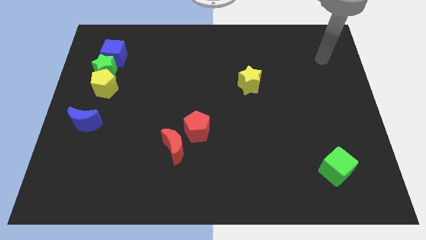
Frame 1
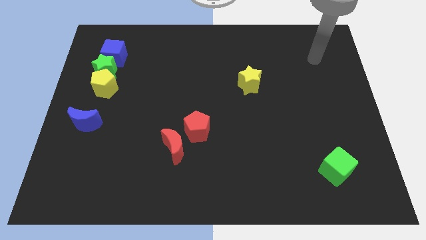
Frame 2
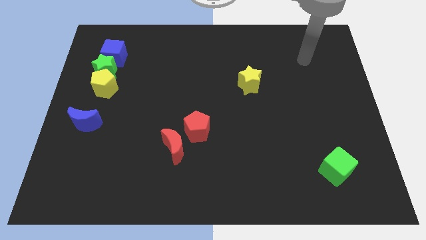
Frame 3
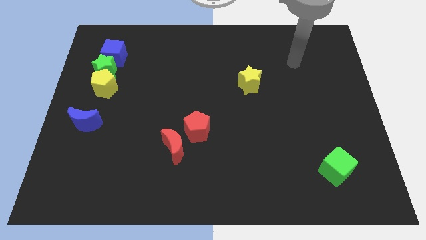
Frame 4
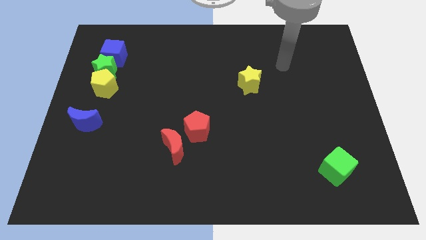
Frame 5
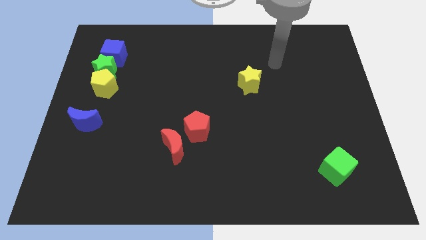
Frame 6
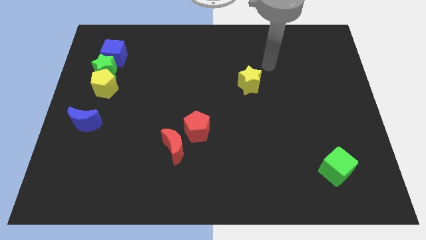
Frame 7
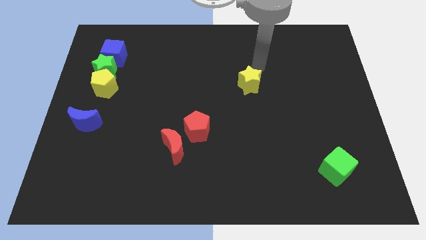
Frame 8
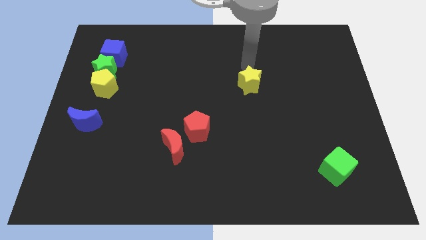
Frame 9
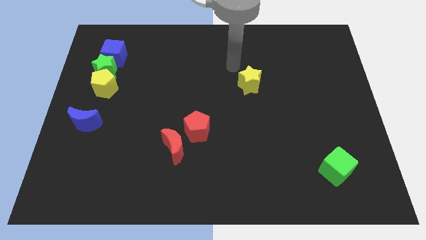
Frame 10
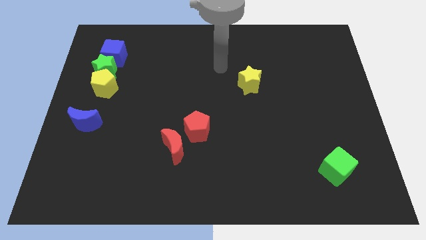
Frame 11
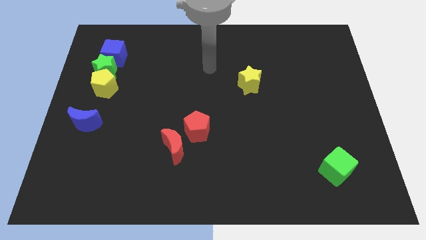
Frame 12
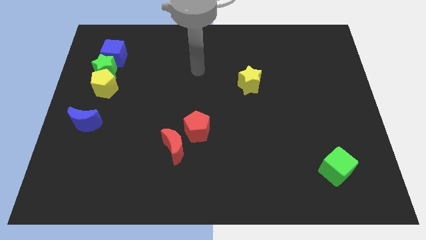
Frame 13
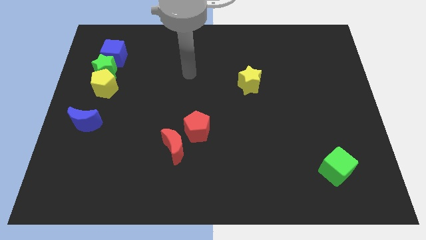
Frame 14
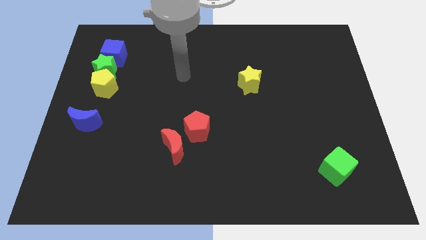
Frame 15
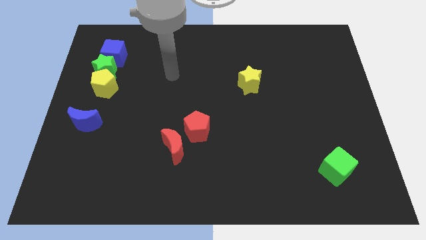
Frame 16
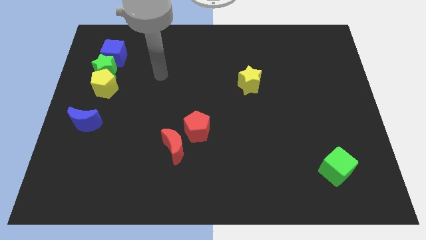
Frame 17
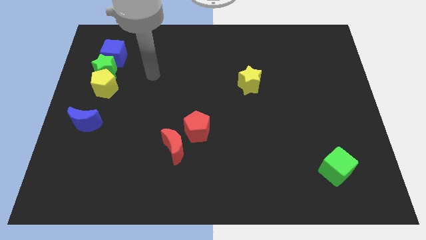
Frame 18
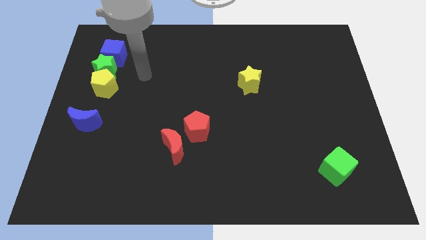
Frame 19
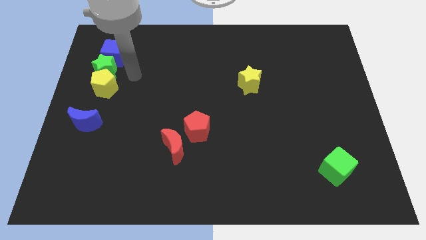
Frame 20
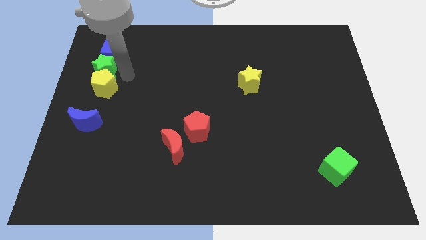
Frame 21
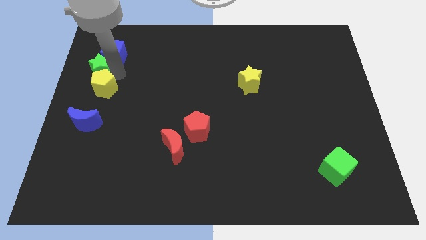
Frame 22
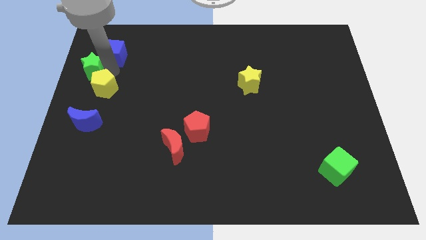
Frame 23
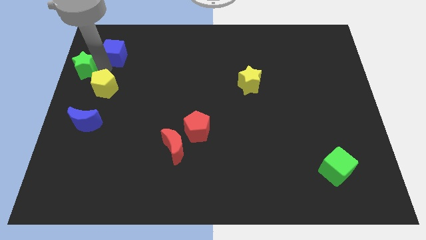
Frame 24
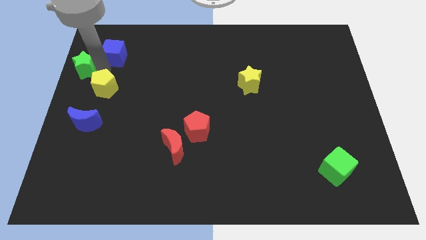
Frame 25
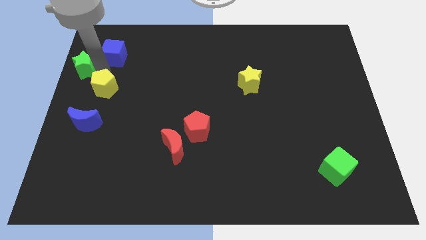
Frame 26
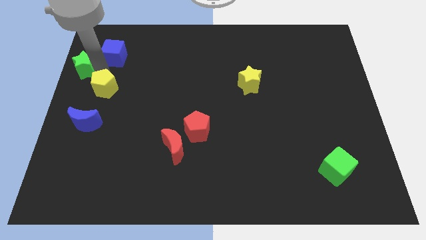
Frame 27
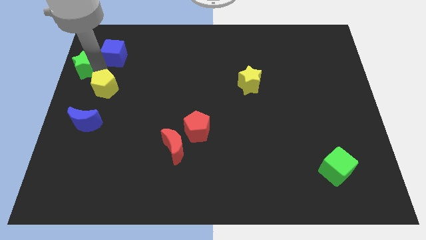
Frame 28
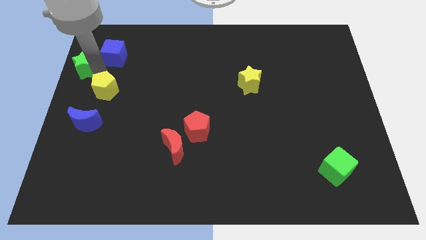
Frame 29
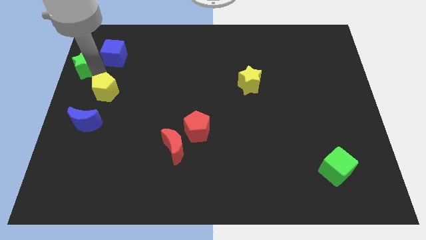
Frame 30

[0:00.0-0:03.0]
move the yellow pentagon away from the green star

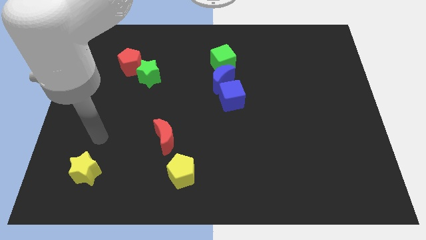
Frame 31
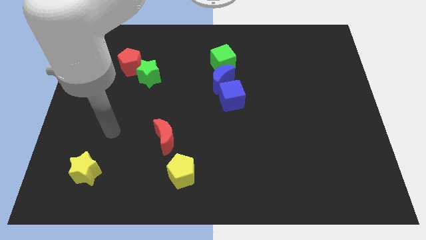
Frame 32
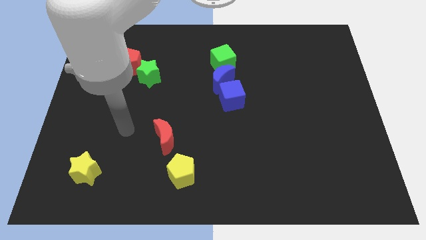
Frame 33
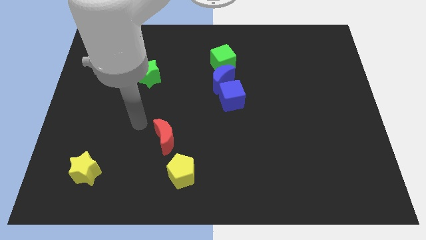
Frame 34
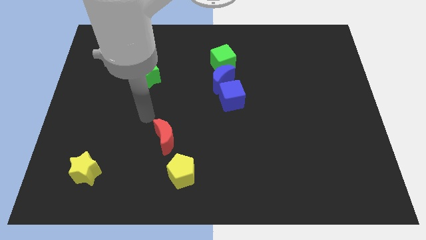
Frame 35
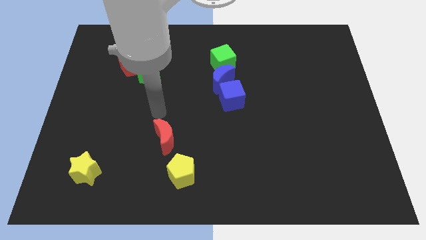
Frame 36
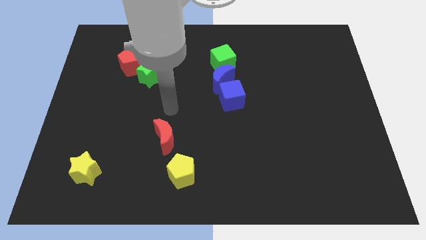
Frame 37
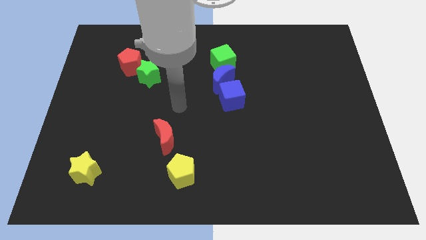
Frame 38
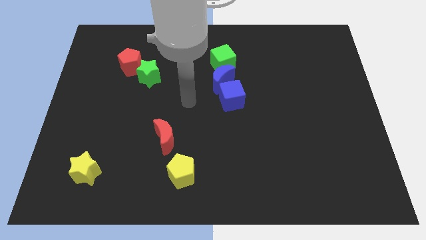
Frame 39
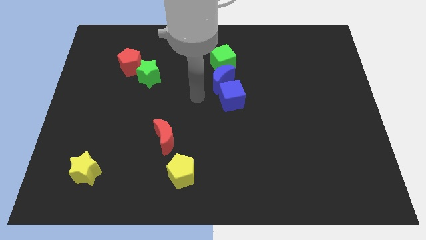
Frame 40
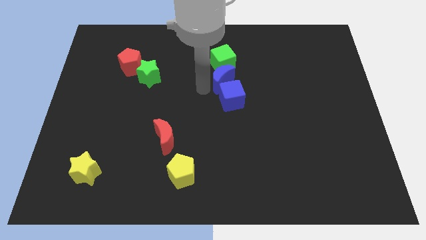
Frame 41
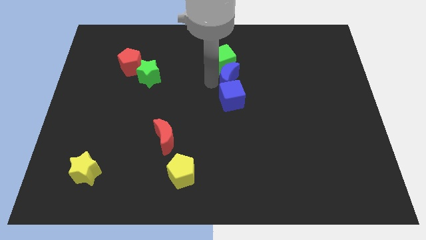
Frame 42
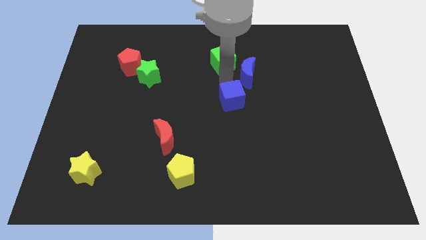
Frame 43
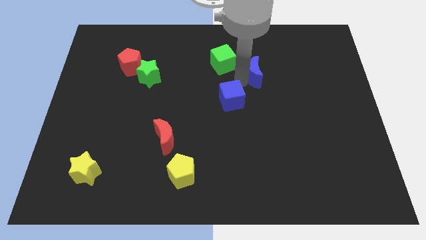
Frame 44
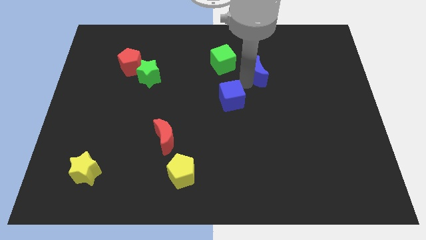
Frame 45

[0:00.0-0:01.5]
pull the blue cube apart from the blue moon

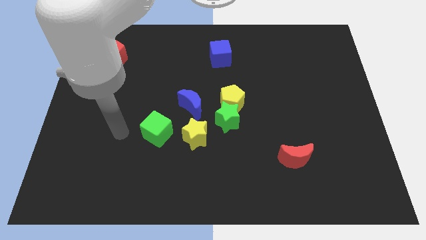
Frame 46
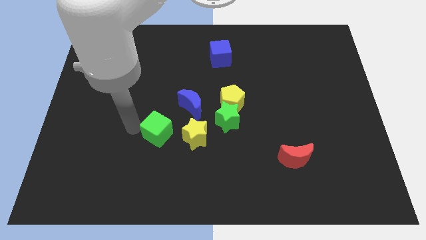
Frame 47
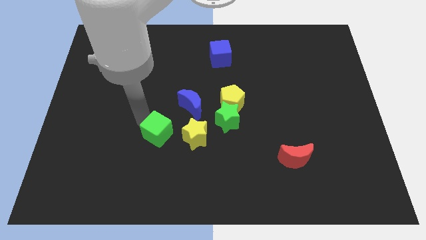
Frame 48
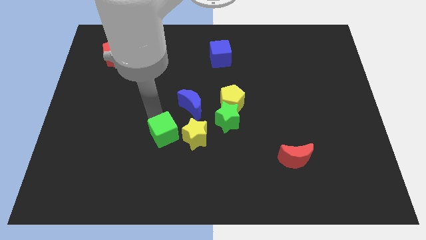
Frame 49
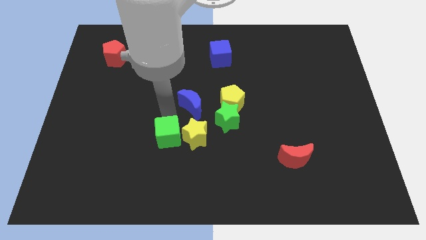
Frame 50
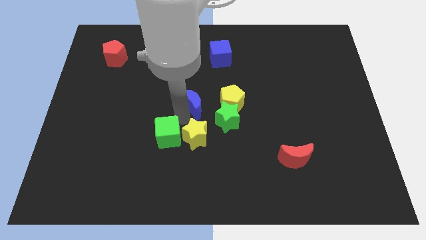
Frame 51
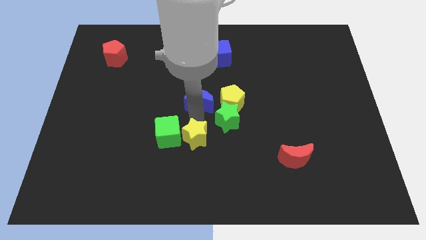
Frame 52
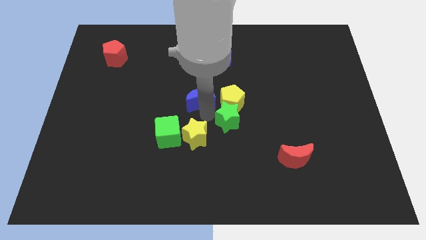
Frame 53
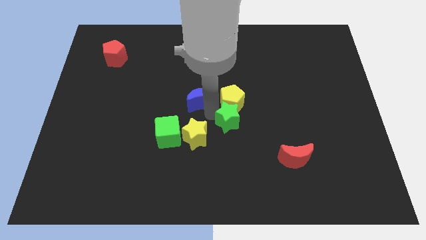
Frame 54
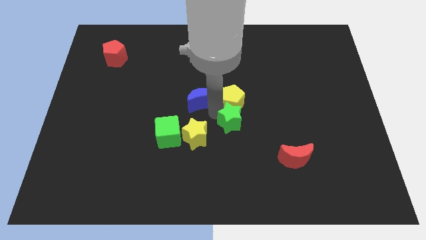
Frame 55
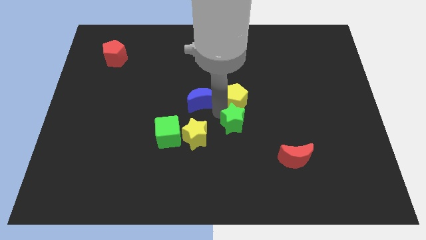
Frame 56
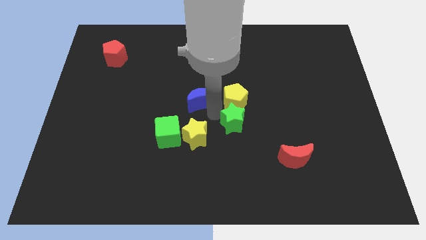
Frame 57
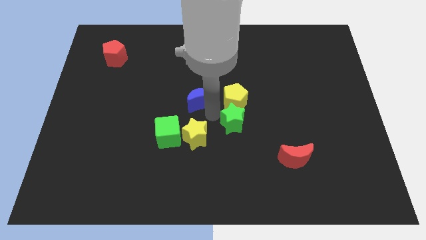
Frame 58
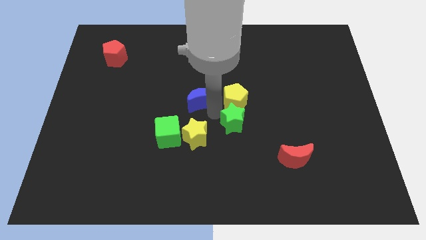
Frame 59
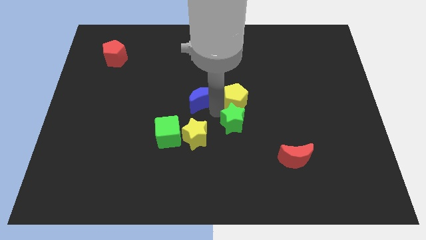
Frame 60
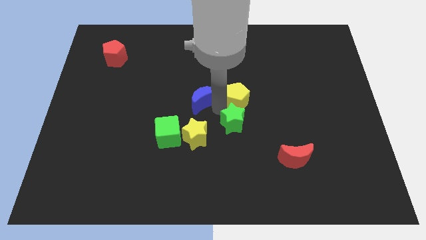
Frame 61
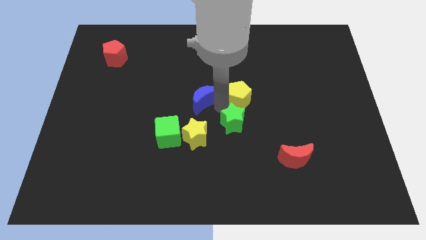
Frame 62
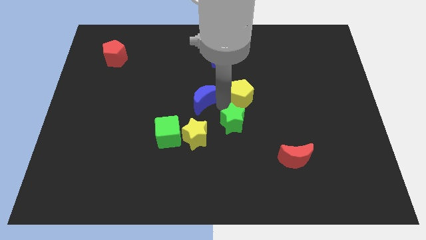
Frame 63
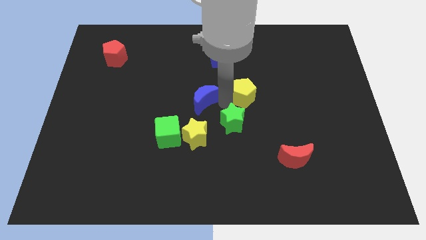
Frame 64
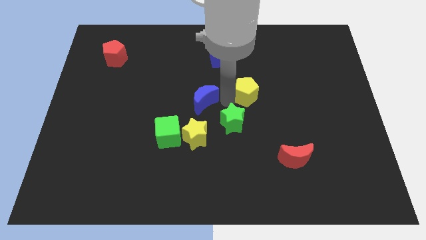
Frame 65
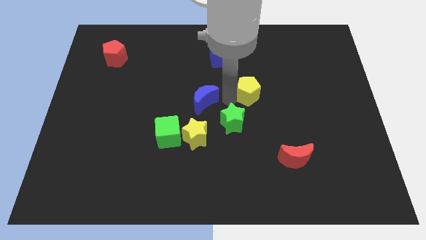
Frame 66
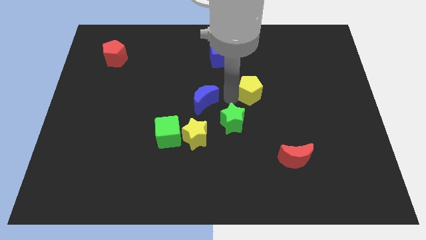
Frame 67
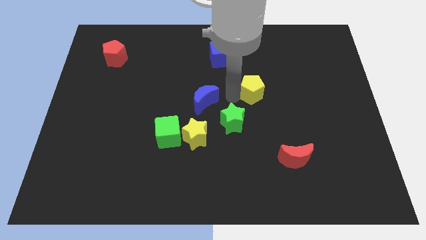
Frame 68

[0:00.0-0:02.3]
move the yellow pentagon away from the green star and blue moon

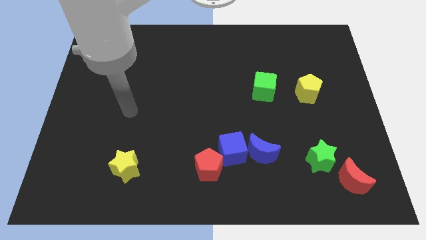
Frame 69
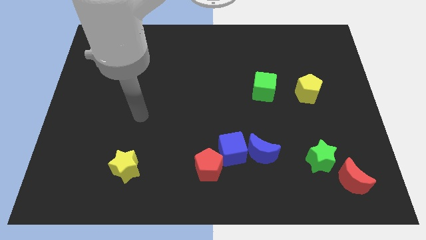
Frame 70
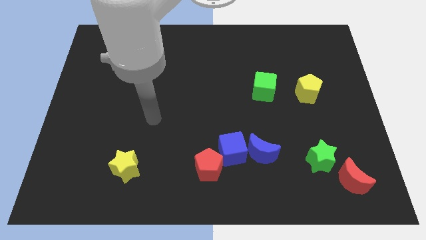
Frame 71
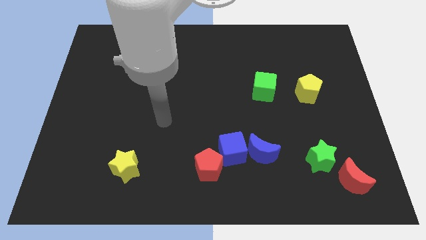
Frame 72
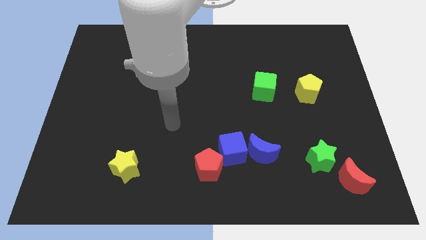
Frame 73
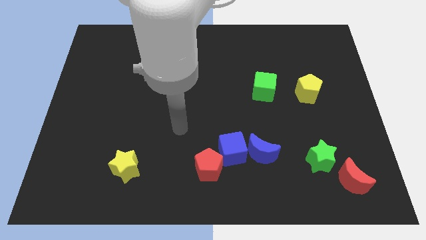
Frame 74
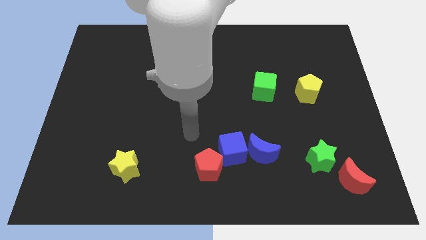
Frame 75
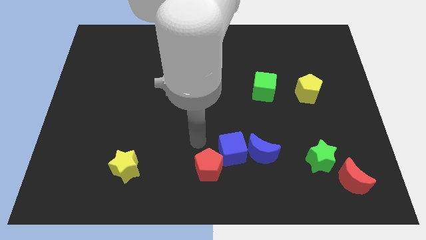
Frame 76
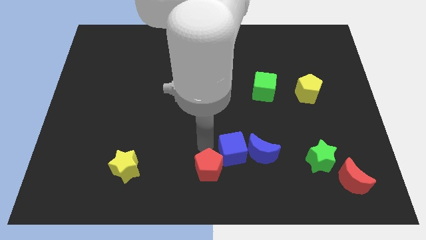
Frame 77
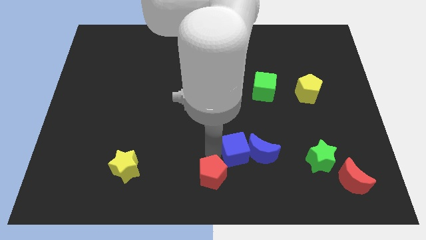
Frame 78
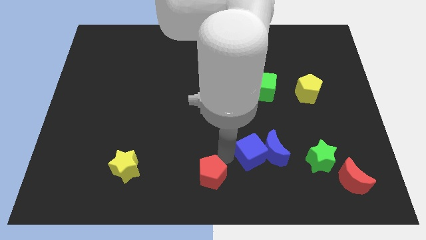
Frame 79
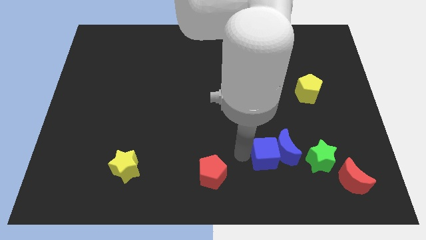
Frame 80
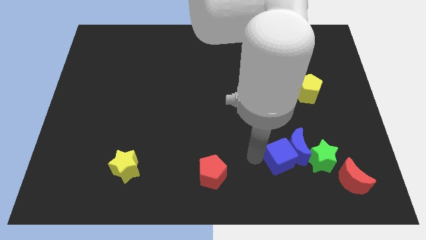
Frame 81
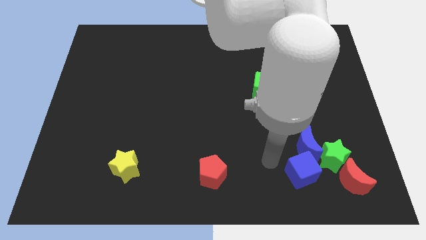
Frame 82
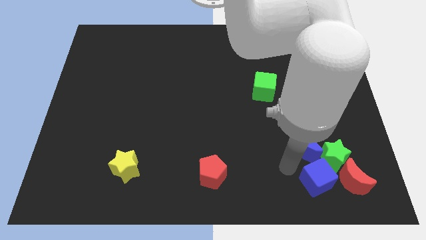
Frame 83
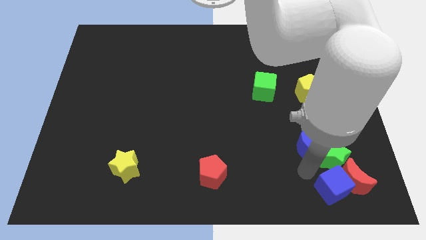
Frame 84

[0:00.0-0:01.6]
pull the blue moon apart from the blue cube

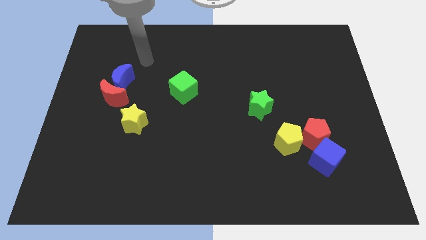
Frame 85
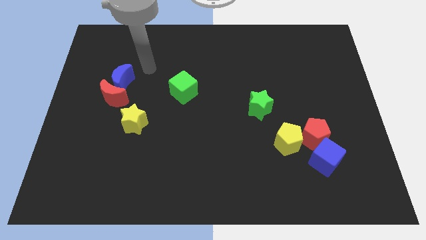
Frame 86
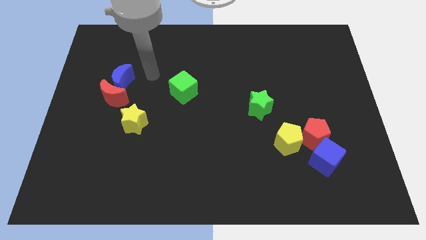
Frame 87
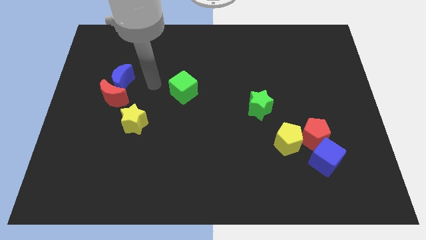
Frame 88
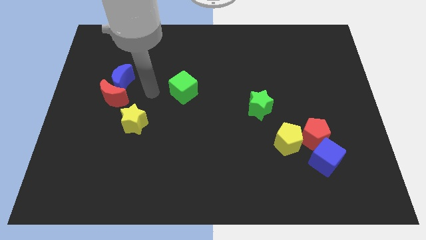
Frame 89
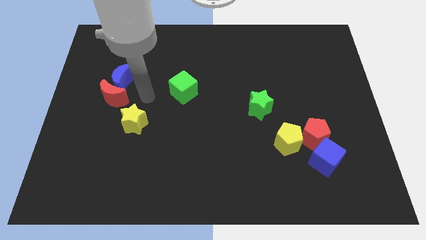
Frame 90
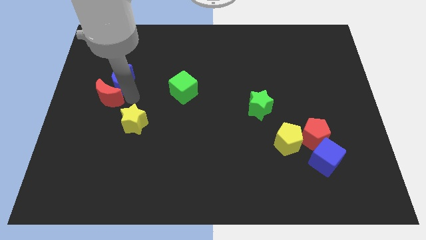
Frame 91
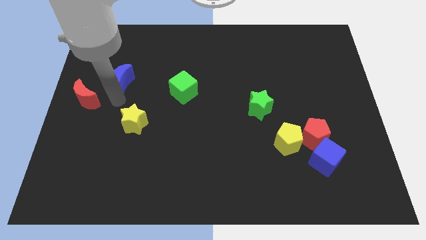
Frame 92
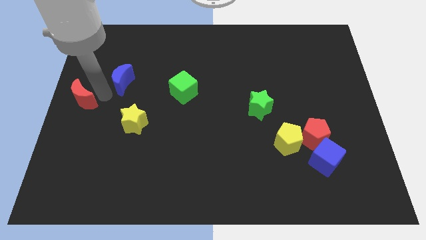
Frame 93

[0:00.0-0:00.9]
move the blue moon away from the red moon
